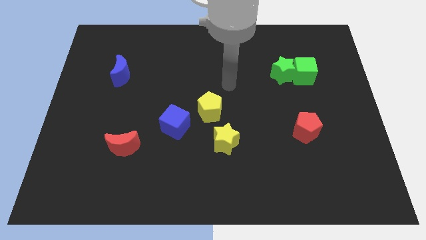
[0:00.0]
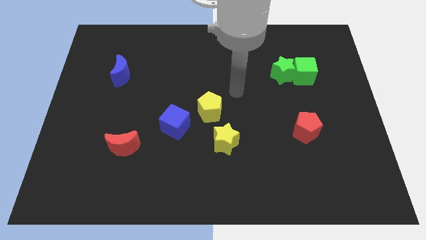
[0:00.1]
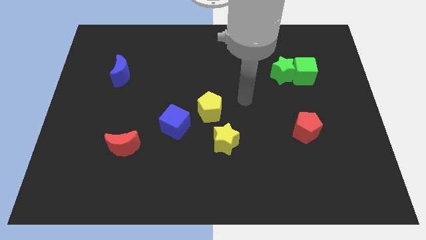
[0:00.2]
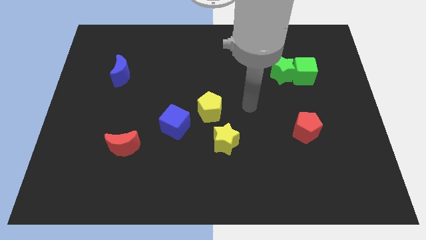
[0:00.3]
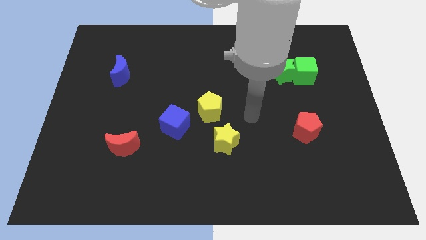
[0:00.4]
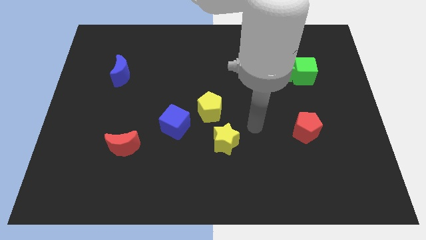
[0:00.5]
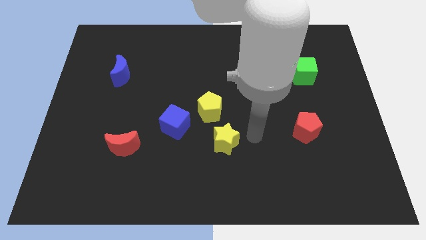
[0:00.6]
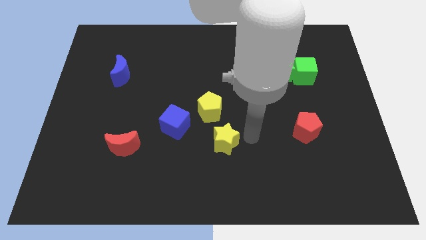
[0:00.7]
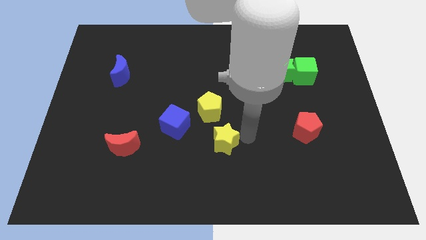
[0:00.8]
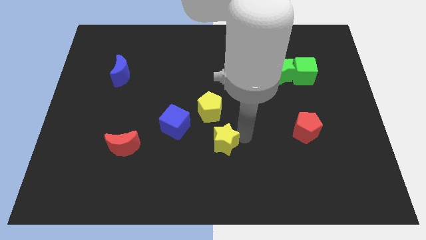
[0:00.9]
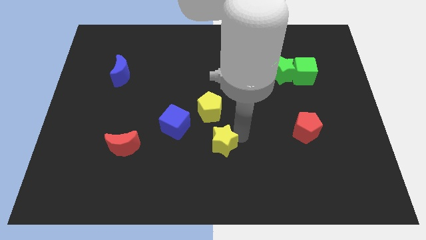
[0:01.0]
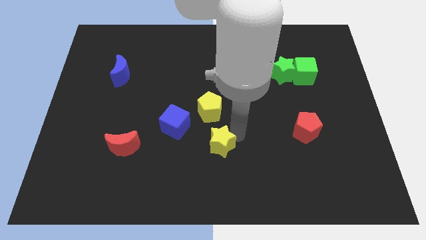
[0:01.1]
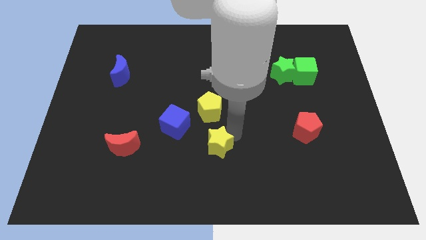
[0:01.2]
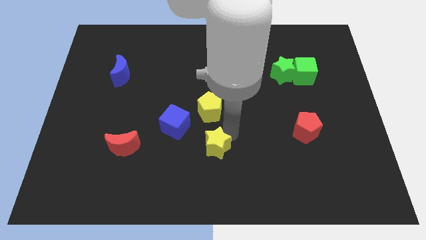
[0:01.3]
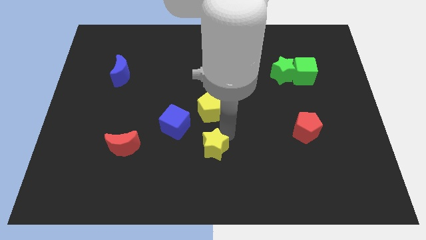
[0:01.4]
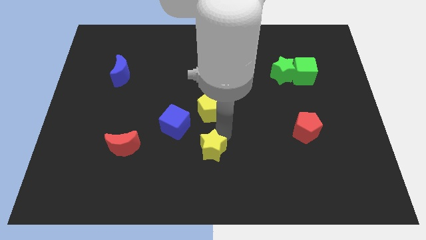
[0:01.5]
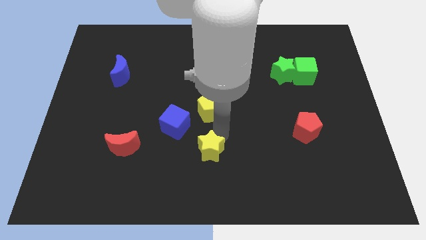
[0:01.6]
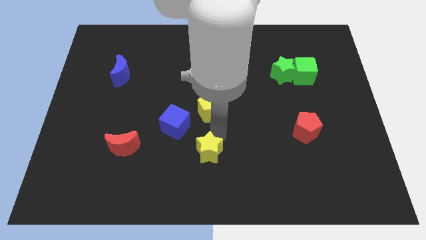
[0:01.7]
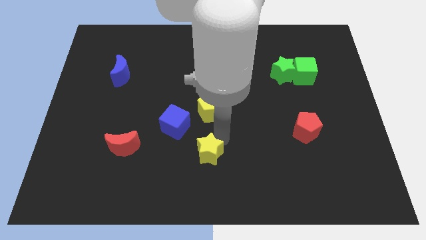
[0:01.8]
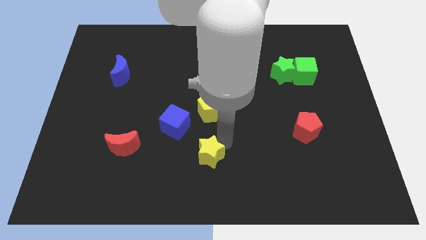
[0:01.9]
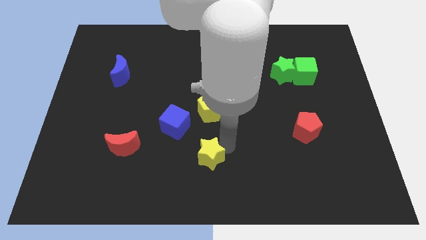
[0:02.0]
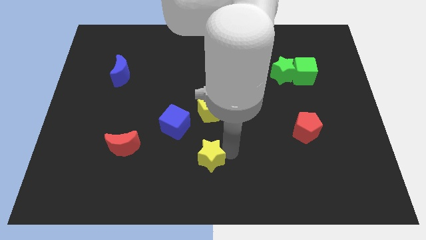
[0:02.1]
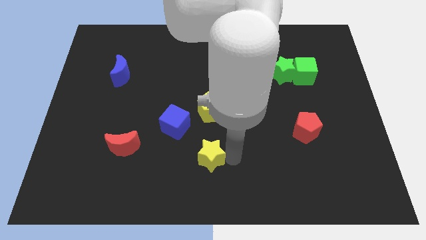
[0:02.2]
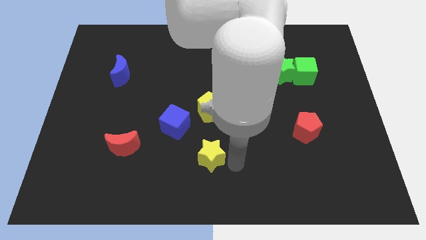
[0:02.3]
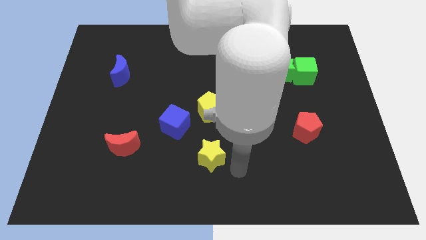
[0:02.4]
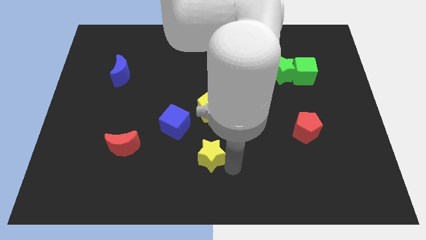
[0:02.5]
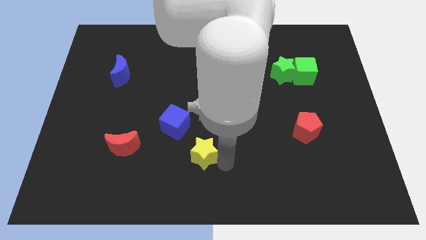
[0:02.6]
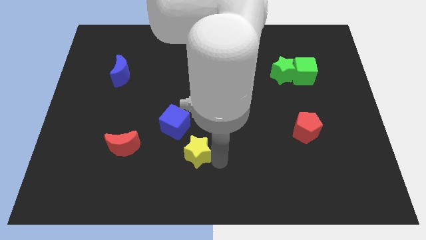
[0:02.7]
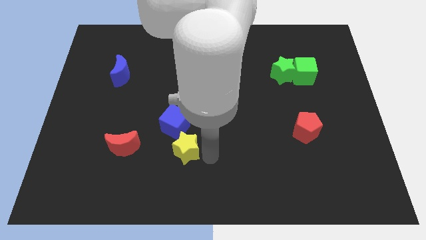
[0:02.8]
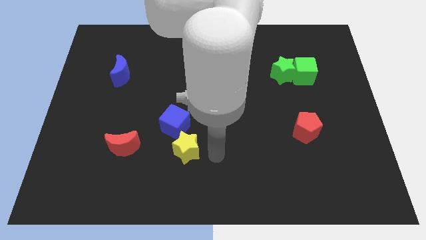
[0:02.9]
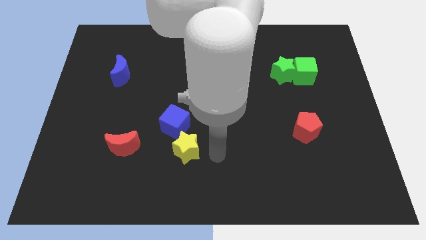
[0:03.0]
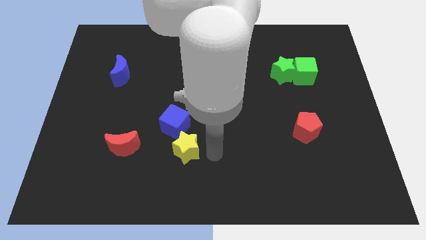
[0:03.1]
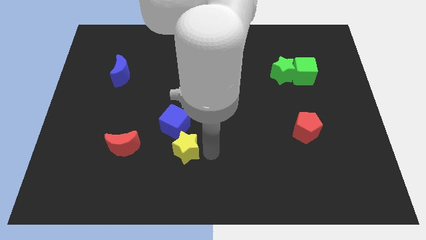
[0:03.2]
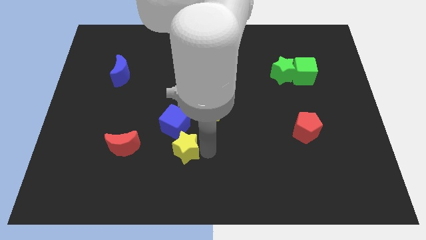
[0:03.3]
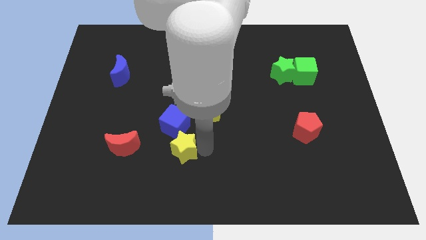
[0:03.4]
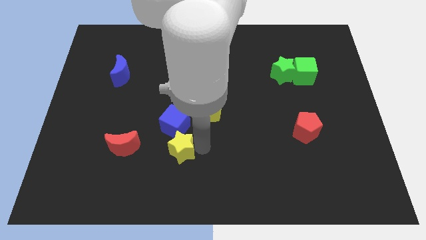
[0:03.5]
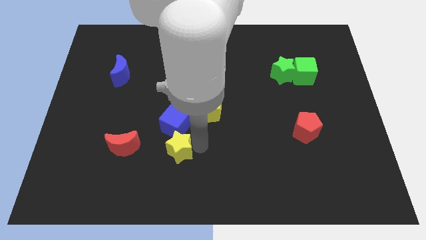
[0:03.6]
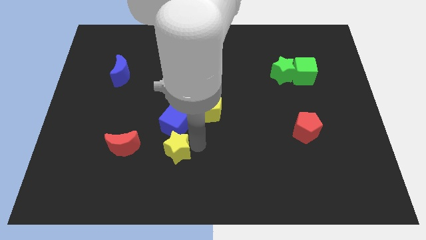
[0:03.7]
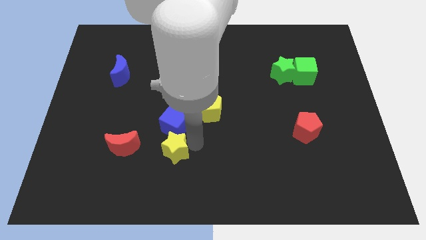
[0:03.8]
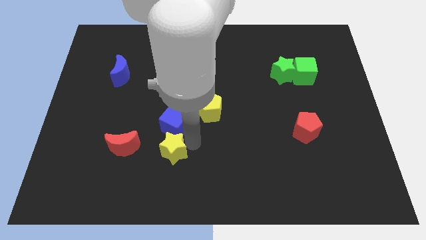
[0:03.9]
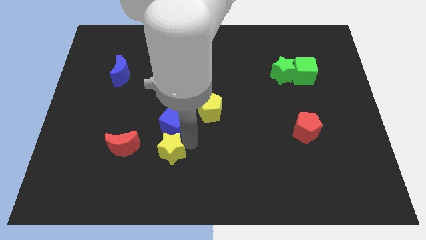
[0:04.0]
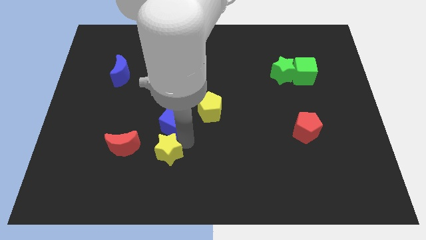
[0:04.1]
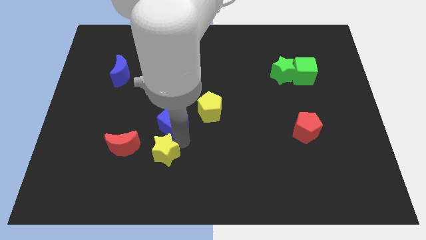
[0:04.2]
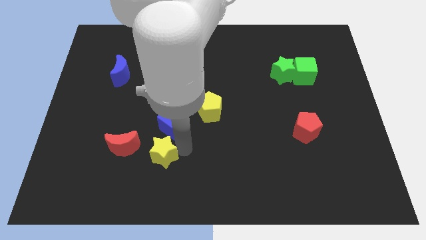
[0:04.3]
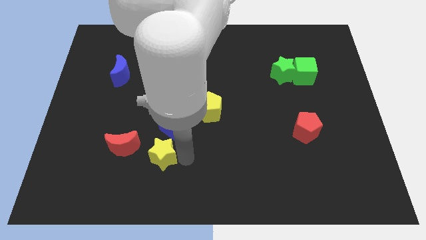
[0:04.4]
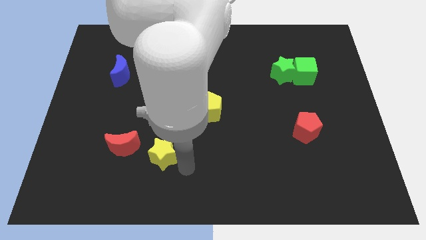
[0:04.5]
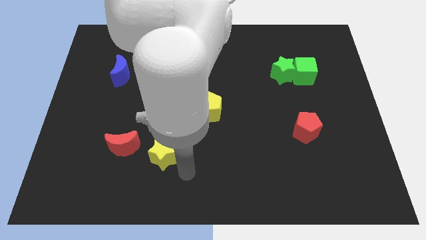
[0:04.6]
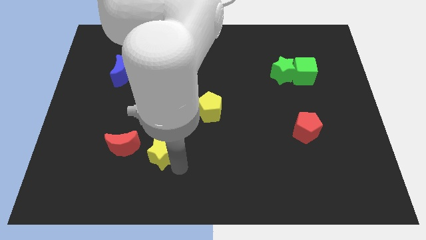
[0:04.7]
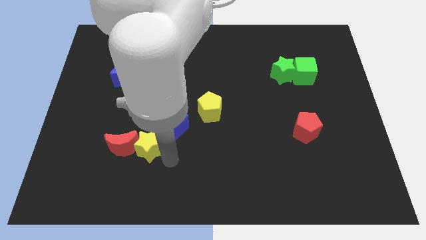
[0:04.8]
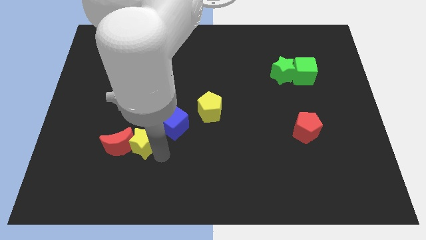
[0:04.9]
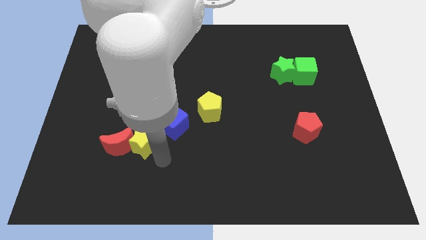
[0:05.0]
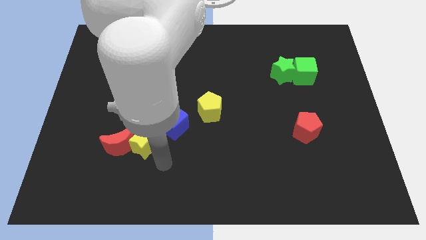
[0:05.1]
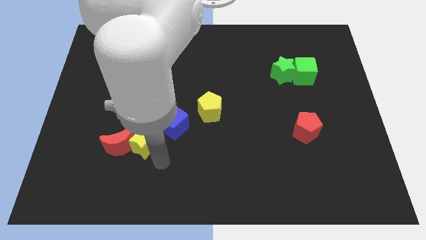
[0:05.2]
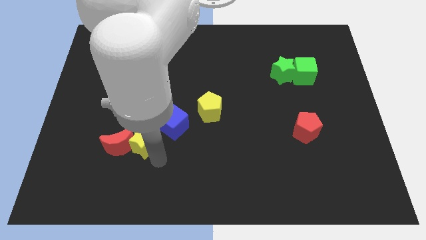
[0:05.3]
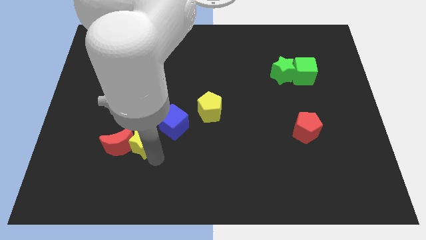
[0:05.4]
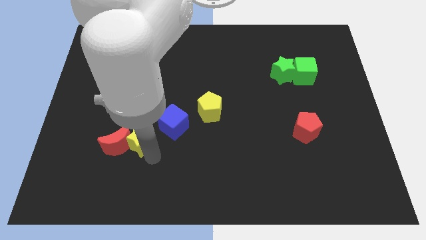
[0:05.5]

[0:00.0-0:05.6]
put the yellow star left of the blue cube
